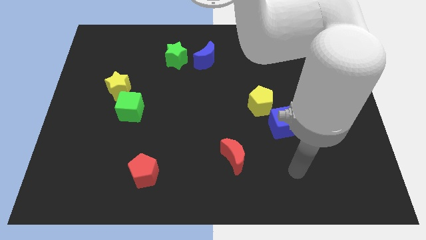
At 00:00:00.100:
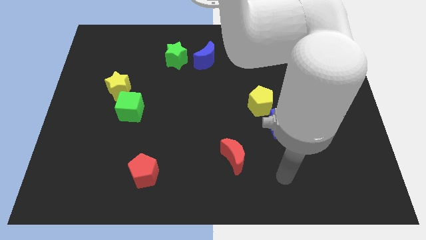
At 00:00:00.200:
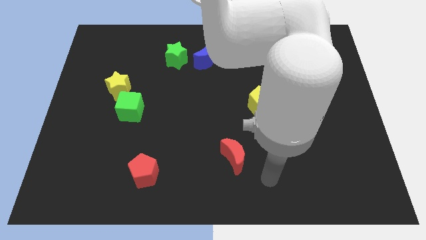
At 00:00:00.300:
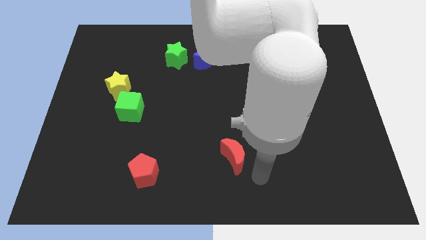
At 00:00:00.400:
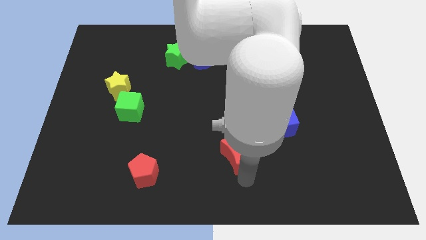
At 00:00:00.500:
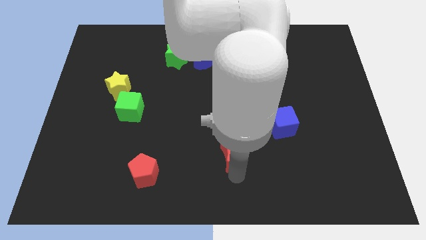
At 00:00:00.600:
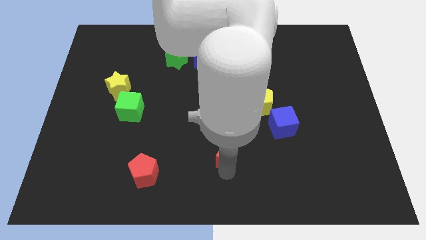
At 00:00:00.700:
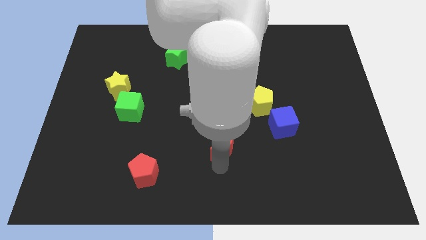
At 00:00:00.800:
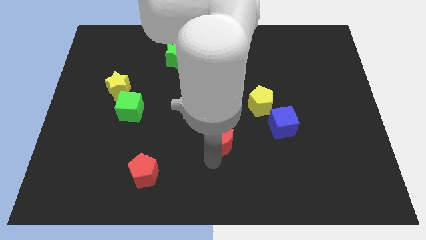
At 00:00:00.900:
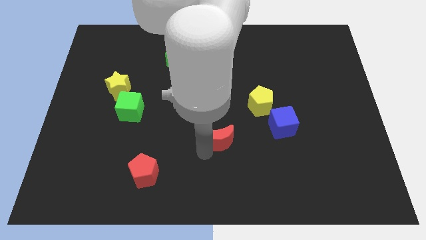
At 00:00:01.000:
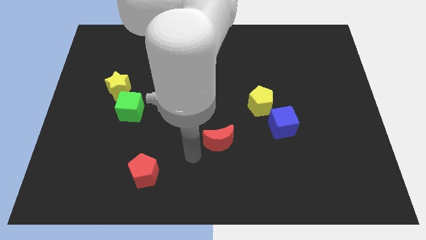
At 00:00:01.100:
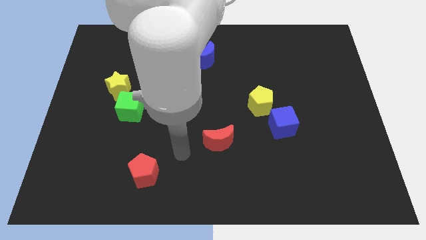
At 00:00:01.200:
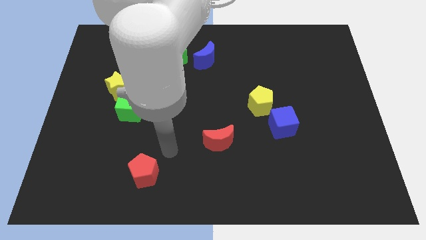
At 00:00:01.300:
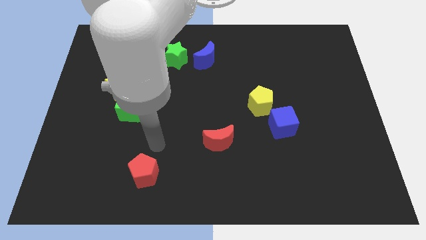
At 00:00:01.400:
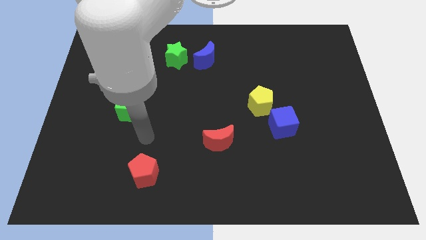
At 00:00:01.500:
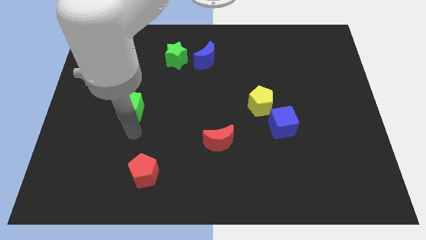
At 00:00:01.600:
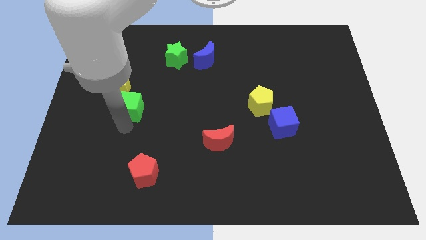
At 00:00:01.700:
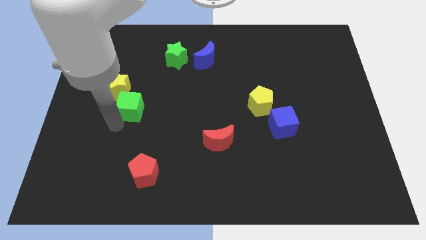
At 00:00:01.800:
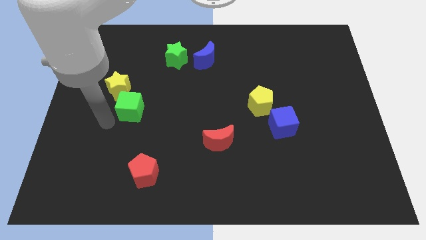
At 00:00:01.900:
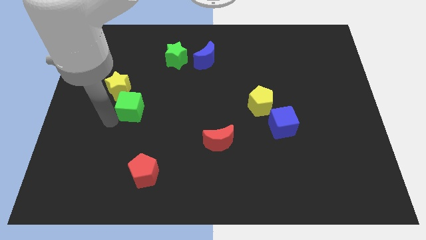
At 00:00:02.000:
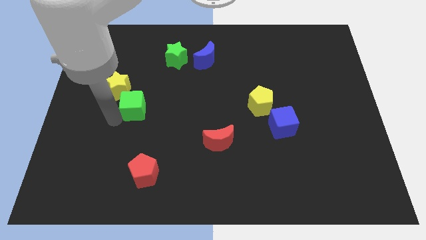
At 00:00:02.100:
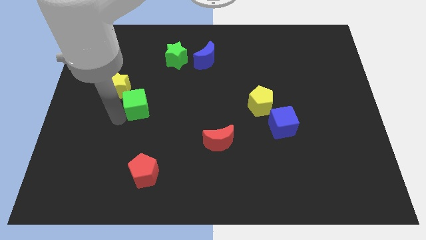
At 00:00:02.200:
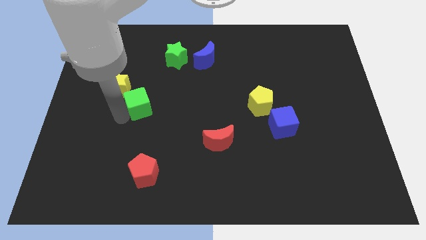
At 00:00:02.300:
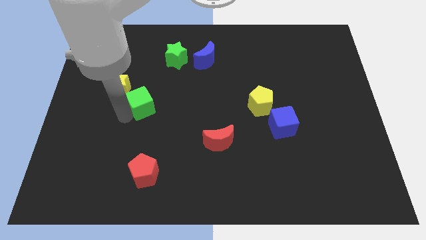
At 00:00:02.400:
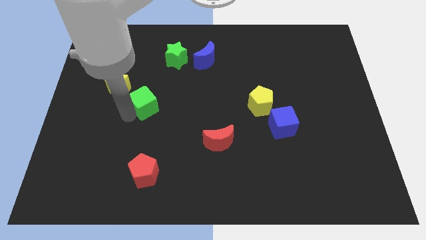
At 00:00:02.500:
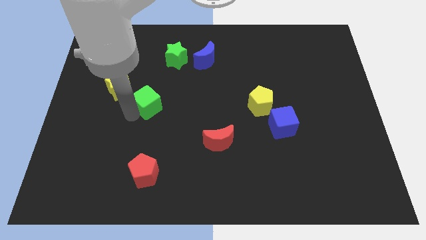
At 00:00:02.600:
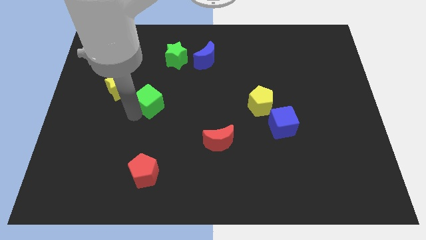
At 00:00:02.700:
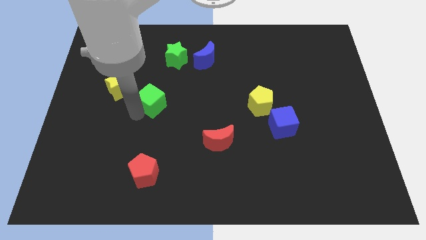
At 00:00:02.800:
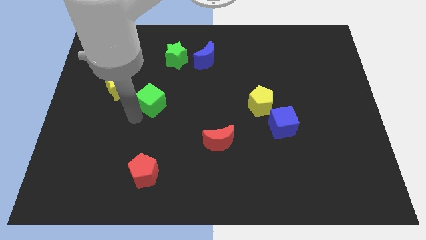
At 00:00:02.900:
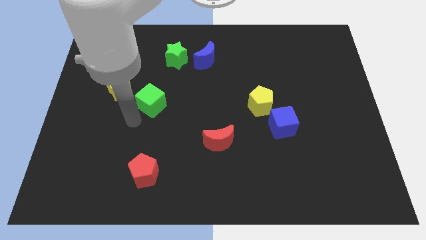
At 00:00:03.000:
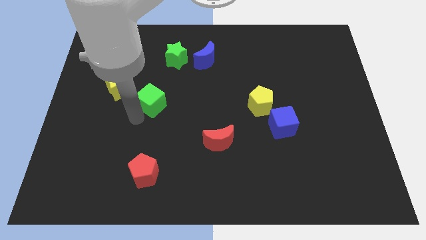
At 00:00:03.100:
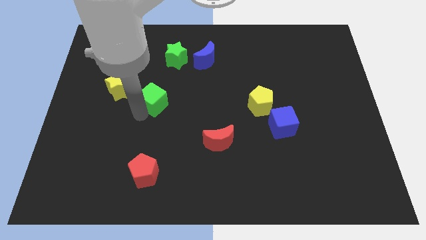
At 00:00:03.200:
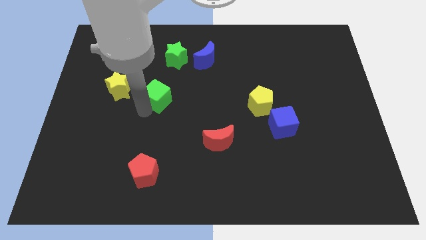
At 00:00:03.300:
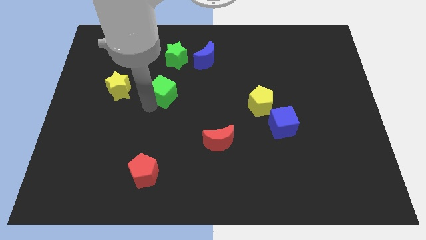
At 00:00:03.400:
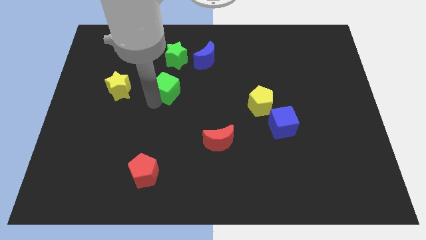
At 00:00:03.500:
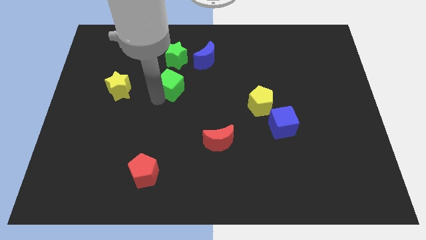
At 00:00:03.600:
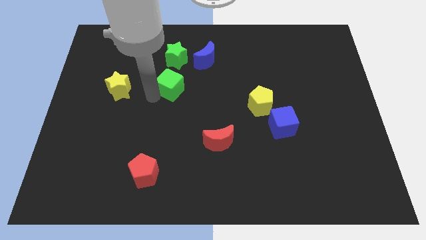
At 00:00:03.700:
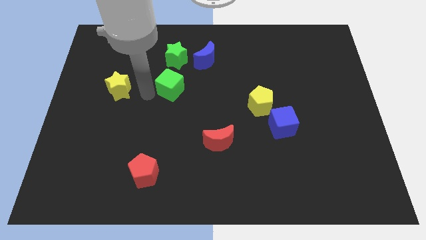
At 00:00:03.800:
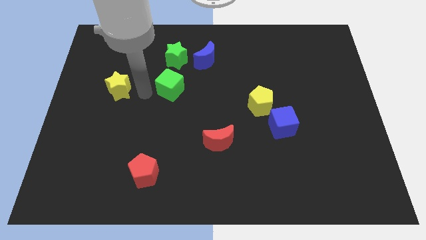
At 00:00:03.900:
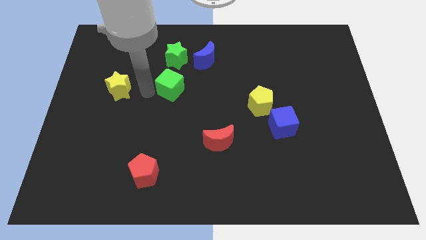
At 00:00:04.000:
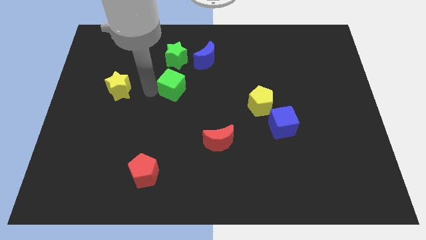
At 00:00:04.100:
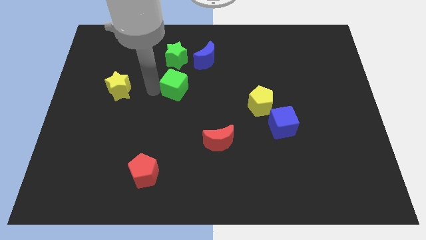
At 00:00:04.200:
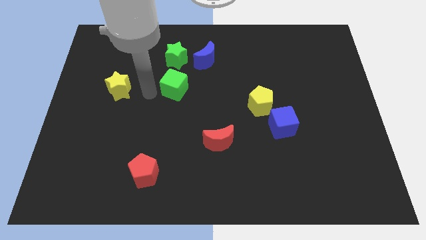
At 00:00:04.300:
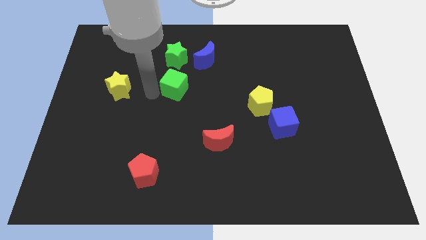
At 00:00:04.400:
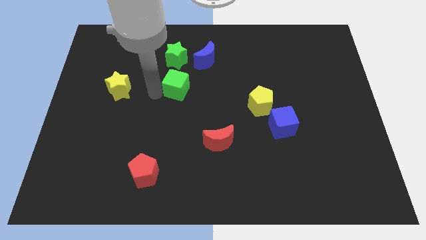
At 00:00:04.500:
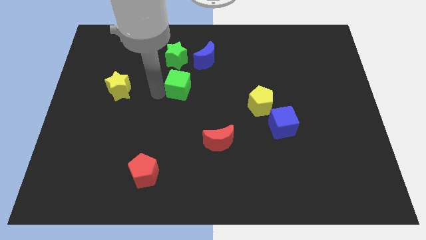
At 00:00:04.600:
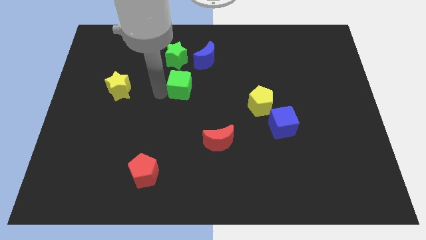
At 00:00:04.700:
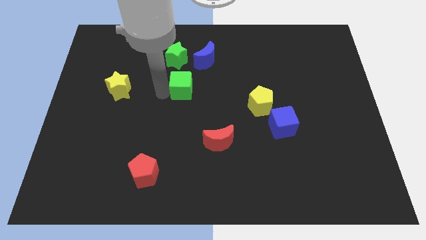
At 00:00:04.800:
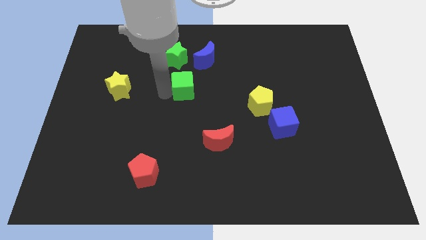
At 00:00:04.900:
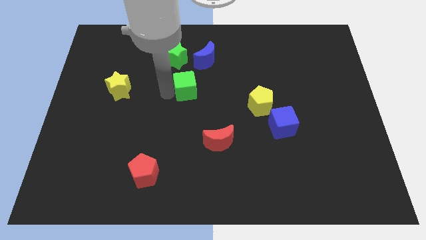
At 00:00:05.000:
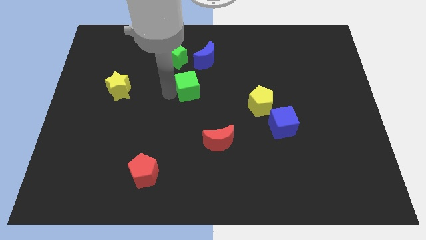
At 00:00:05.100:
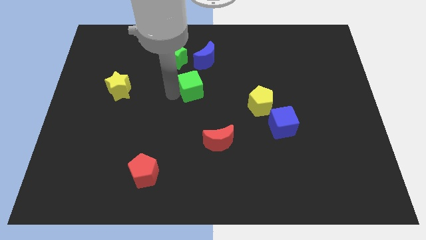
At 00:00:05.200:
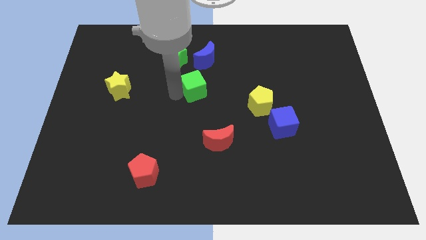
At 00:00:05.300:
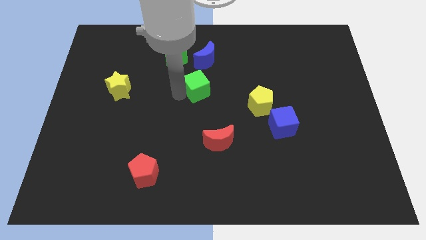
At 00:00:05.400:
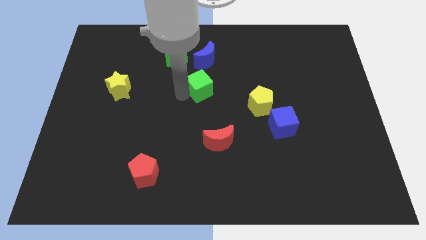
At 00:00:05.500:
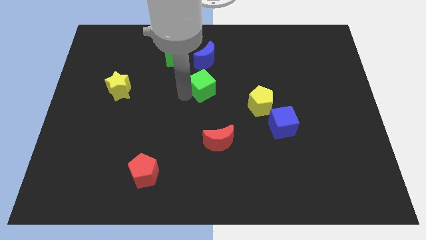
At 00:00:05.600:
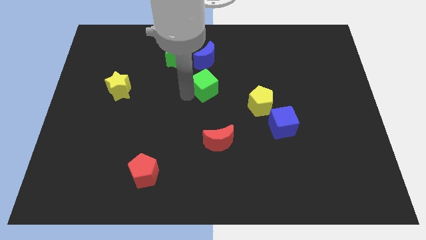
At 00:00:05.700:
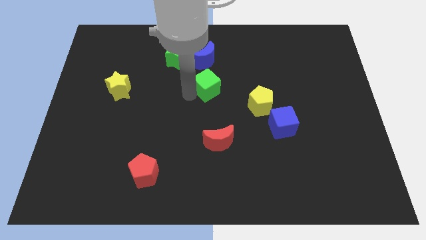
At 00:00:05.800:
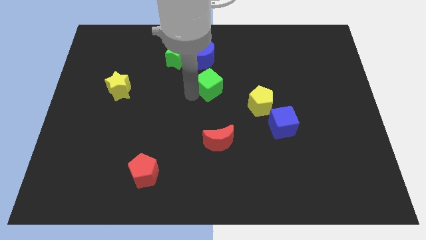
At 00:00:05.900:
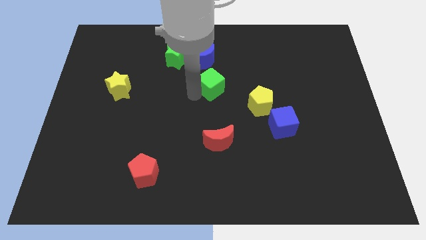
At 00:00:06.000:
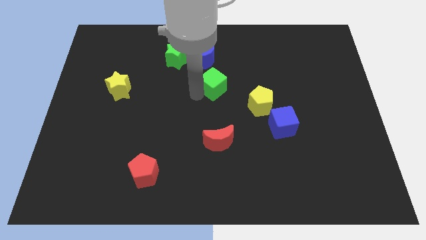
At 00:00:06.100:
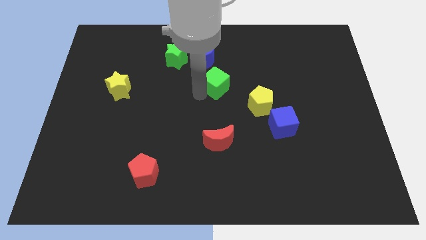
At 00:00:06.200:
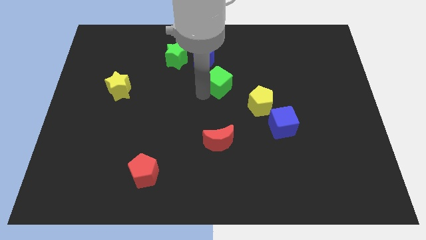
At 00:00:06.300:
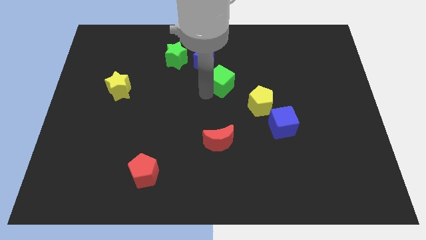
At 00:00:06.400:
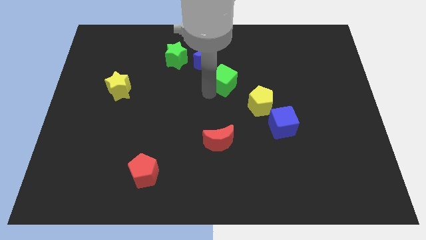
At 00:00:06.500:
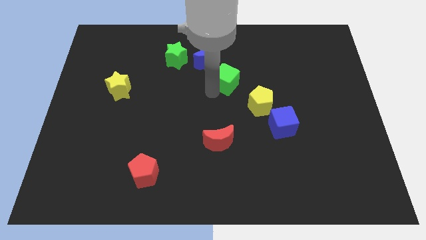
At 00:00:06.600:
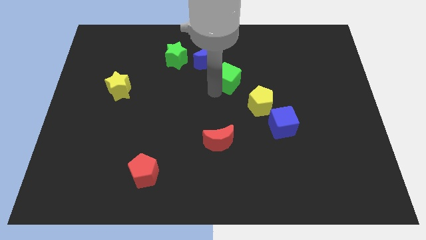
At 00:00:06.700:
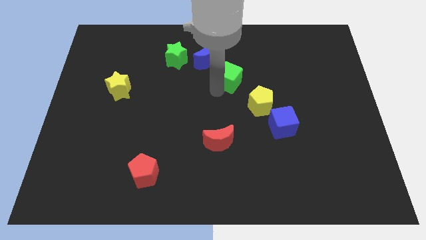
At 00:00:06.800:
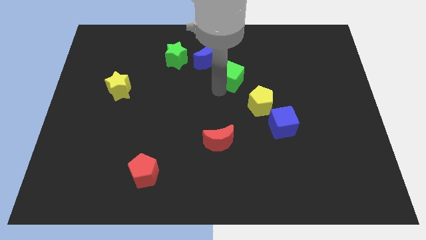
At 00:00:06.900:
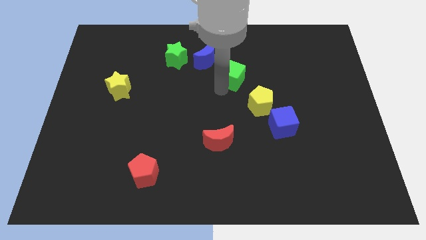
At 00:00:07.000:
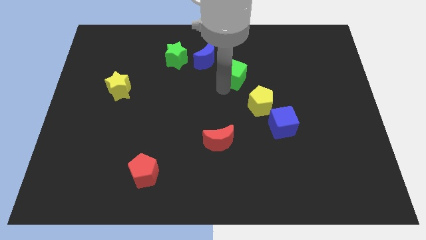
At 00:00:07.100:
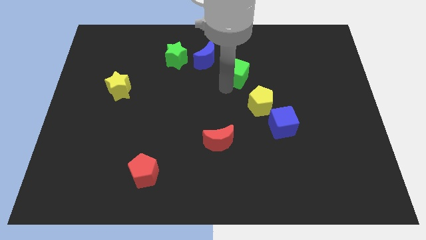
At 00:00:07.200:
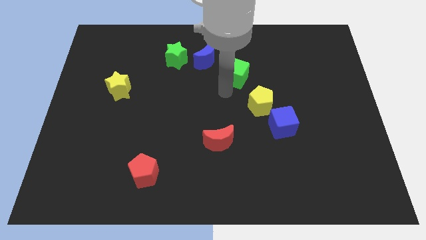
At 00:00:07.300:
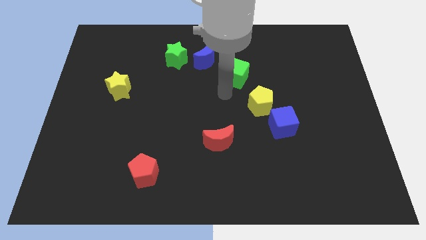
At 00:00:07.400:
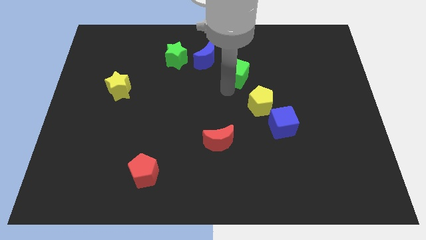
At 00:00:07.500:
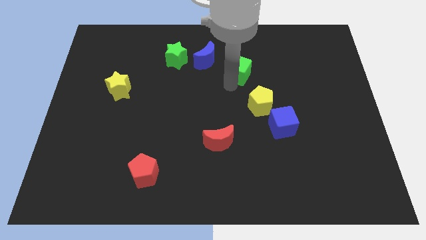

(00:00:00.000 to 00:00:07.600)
push the green cube to the right side of the blue moon
